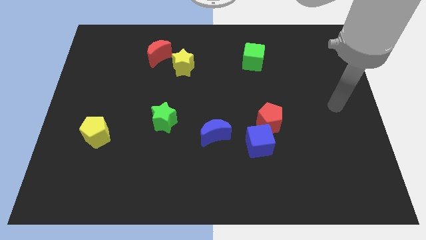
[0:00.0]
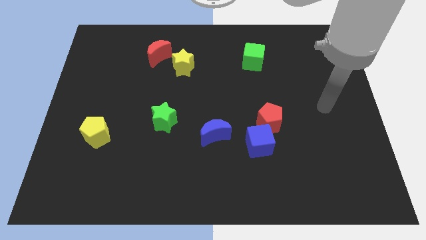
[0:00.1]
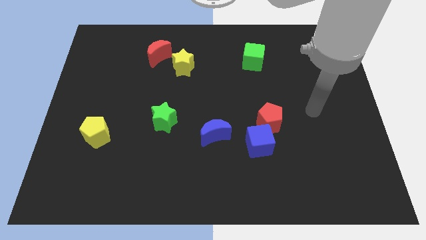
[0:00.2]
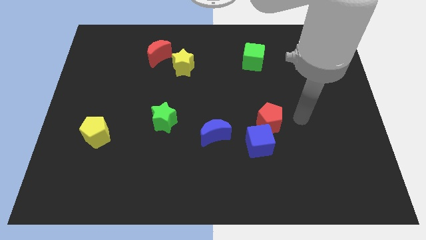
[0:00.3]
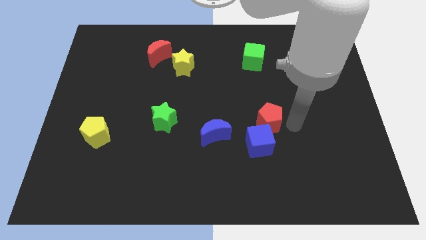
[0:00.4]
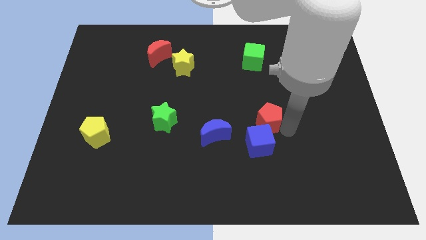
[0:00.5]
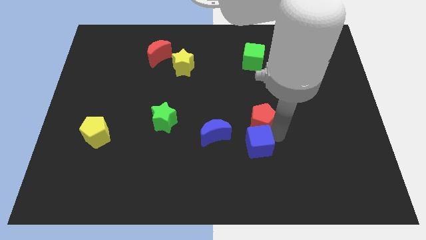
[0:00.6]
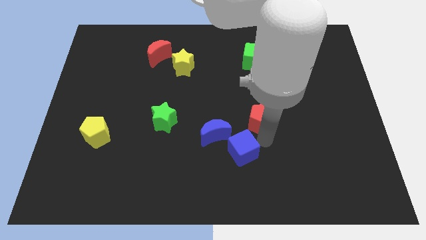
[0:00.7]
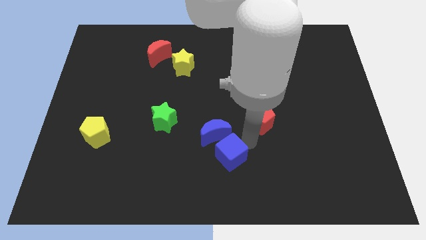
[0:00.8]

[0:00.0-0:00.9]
move the red pentagon away from the blue cube

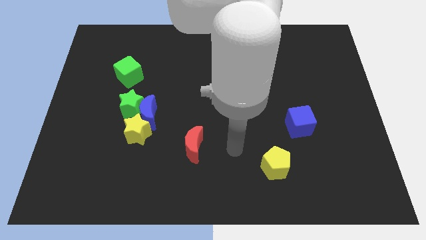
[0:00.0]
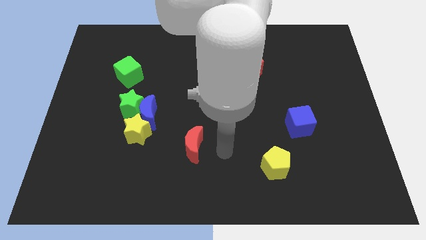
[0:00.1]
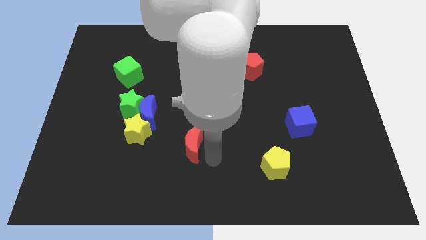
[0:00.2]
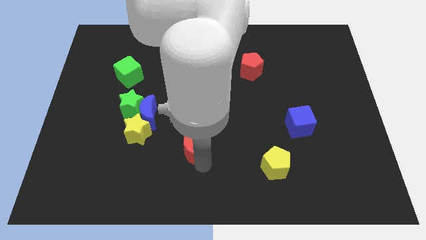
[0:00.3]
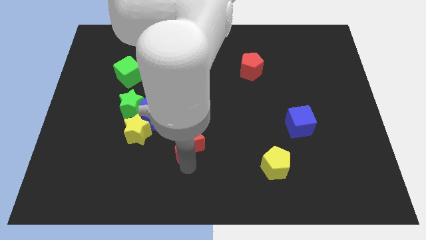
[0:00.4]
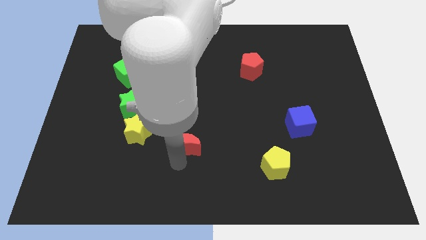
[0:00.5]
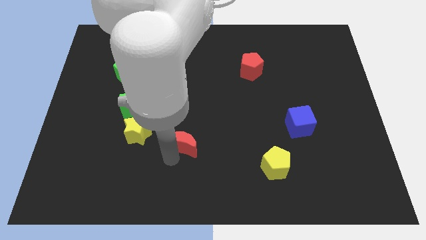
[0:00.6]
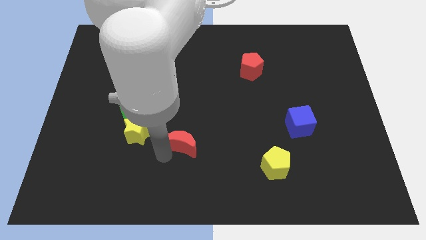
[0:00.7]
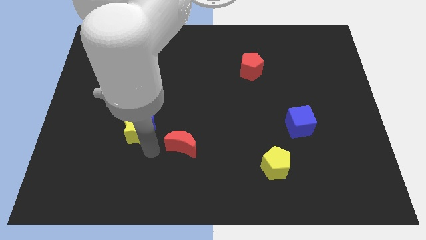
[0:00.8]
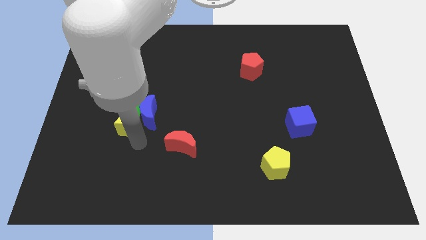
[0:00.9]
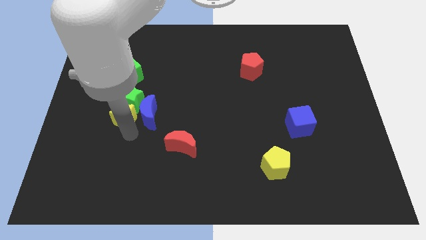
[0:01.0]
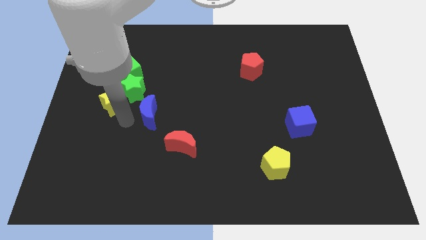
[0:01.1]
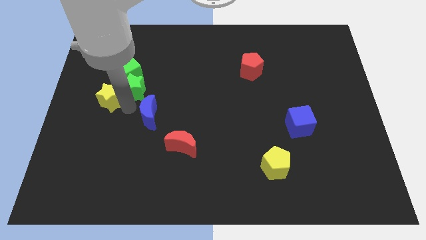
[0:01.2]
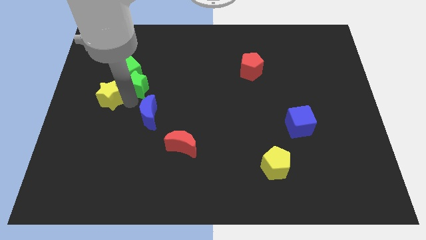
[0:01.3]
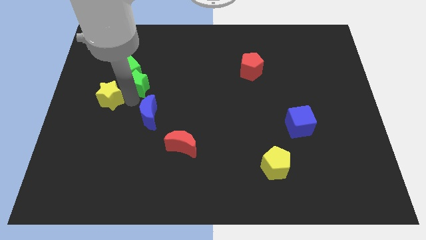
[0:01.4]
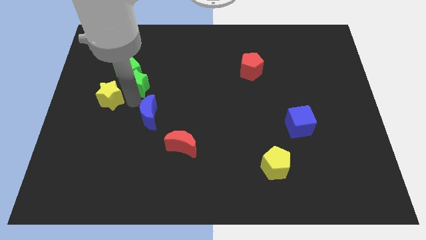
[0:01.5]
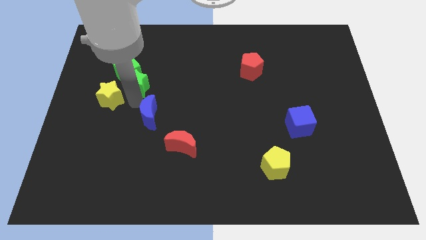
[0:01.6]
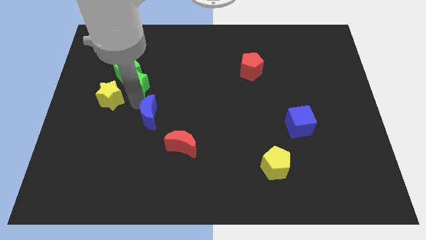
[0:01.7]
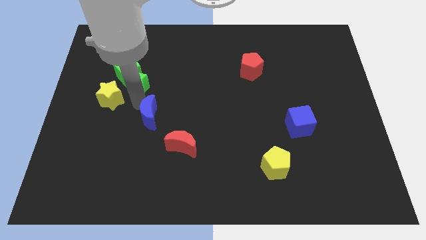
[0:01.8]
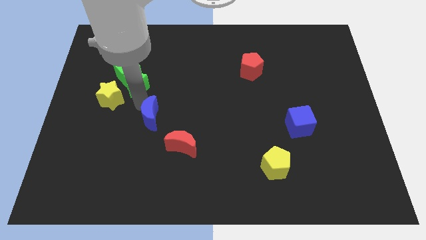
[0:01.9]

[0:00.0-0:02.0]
move the blue moon away from the green star and yellow star

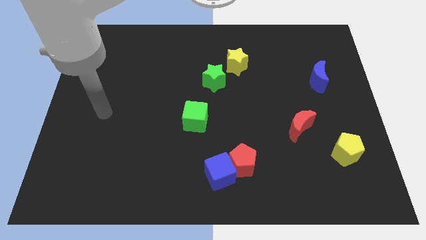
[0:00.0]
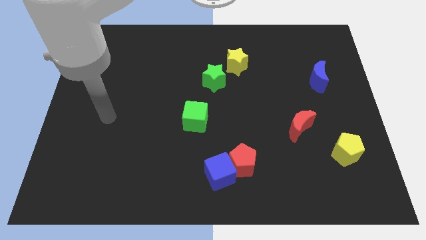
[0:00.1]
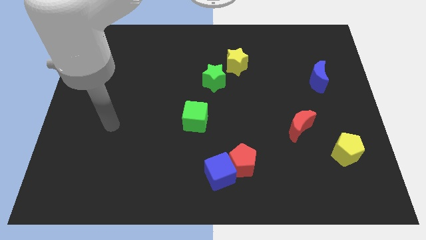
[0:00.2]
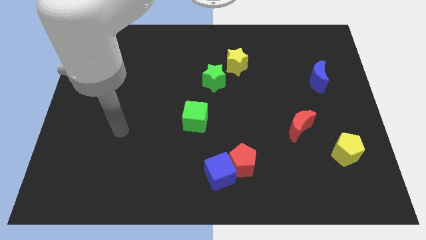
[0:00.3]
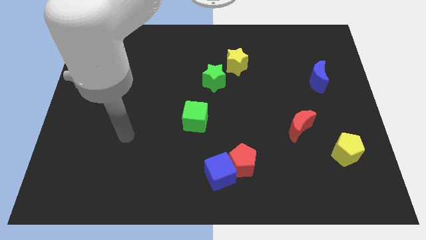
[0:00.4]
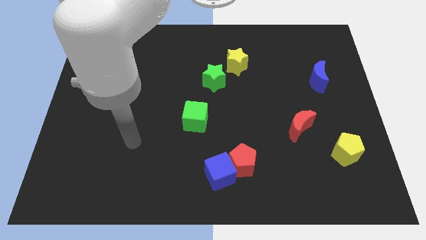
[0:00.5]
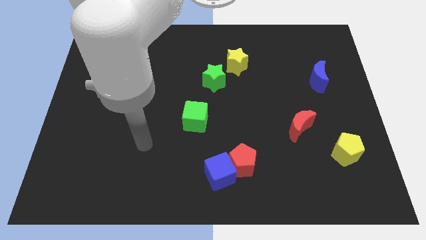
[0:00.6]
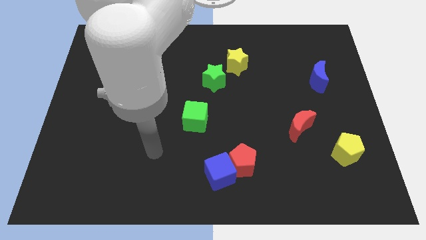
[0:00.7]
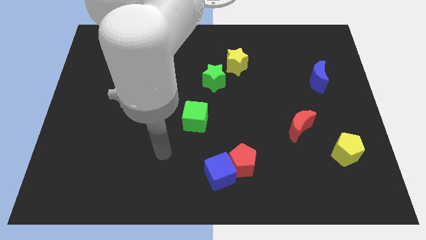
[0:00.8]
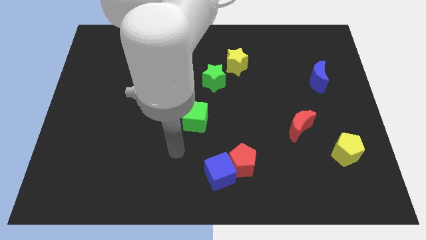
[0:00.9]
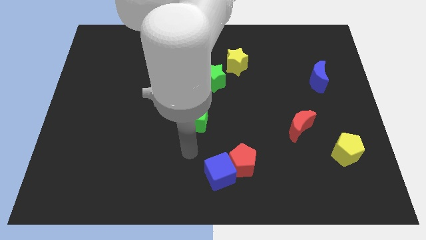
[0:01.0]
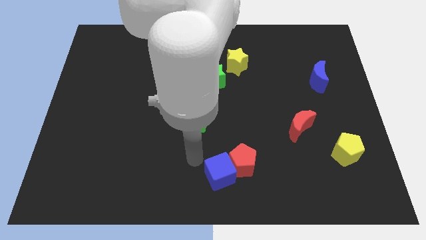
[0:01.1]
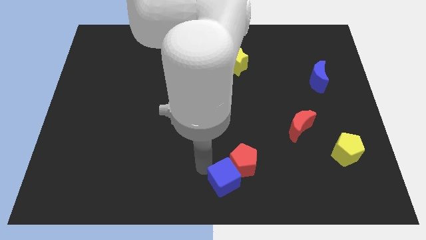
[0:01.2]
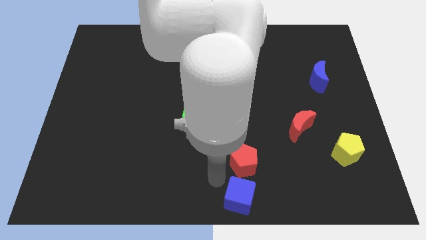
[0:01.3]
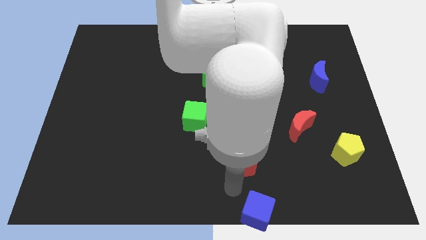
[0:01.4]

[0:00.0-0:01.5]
pull the red pentagon apart from the blue cube

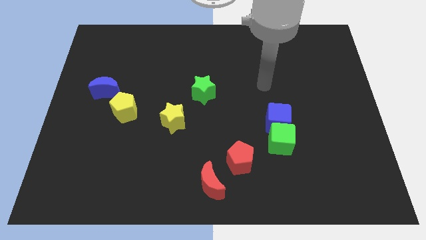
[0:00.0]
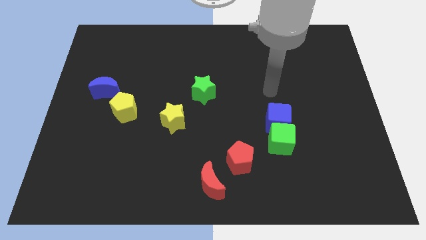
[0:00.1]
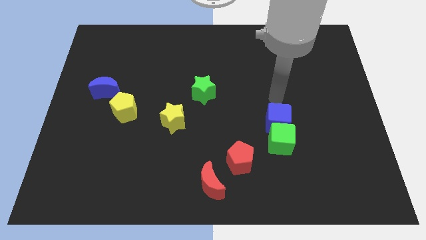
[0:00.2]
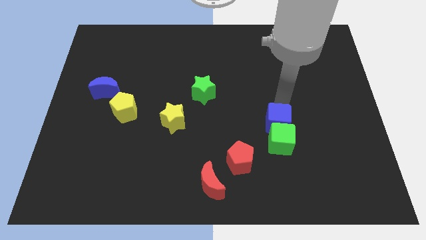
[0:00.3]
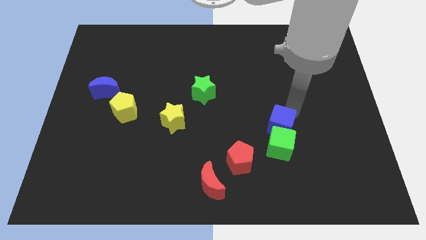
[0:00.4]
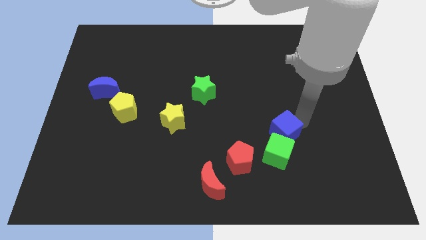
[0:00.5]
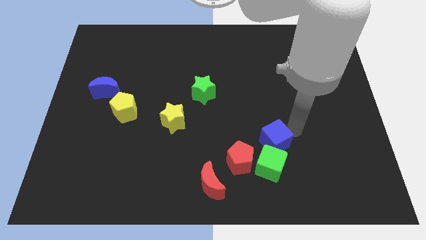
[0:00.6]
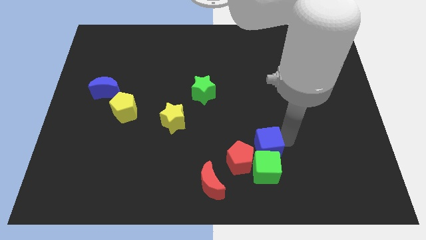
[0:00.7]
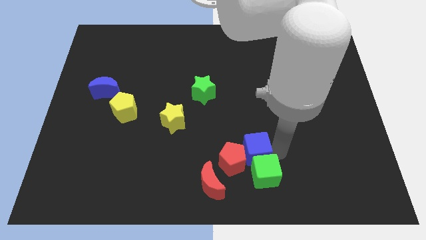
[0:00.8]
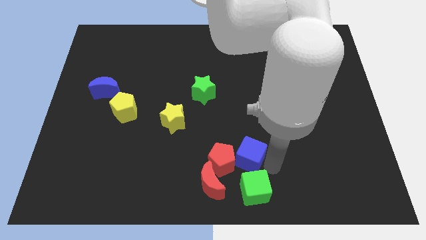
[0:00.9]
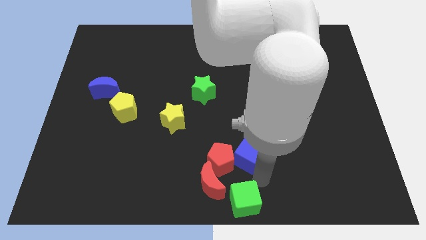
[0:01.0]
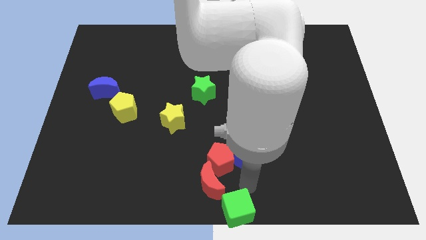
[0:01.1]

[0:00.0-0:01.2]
separate the blue cube from the green cube

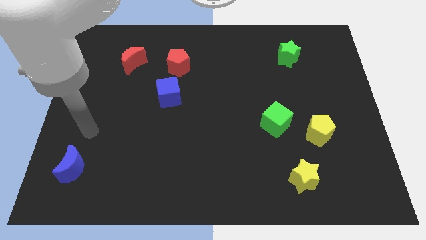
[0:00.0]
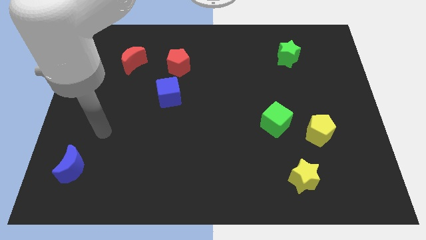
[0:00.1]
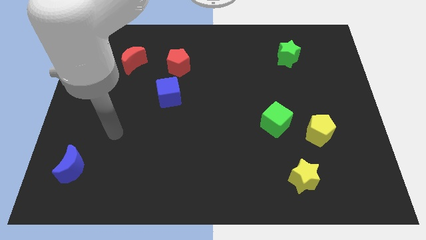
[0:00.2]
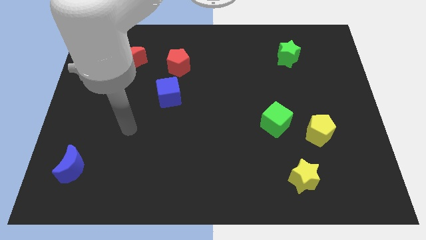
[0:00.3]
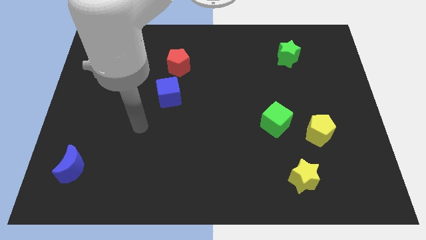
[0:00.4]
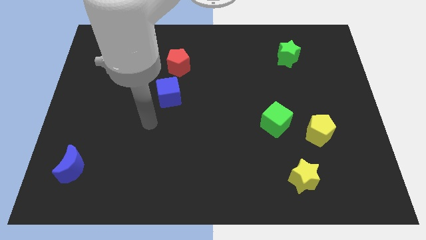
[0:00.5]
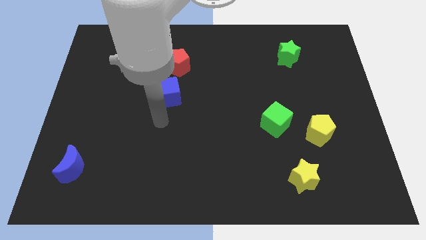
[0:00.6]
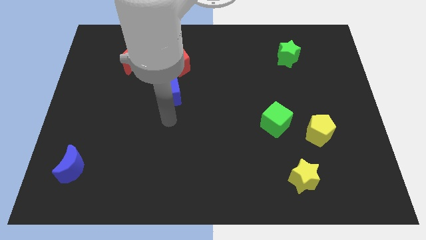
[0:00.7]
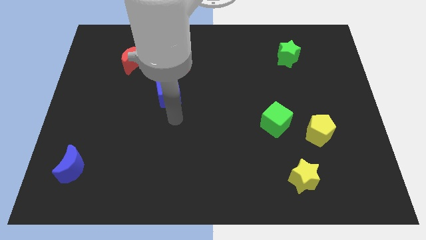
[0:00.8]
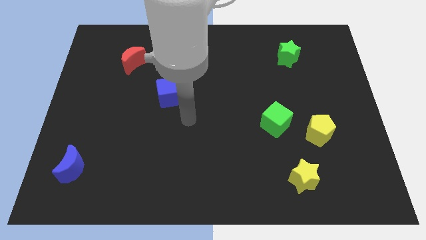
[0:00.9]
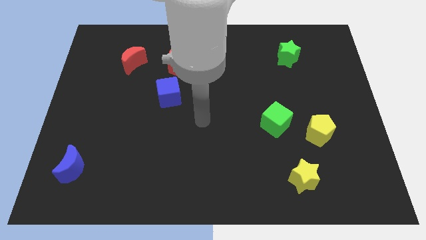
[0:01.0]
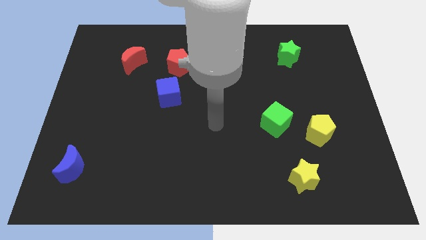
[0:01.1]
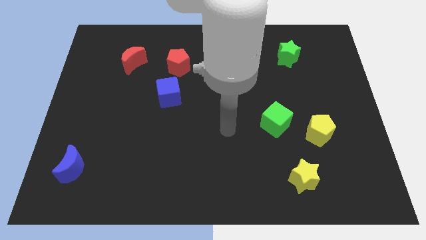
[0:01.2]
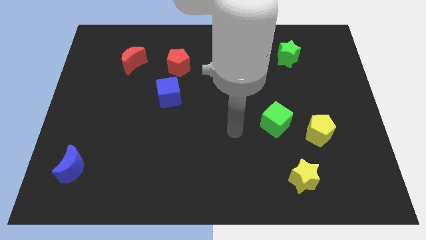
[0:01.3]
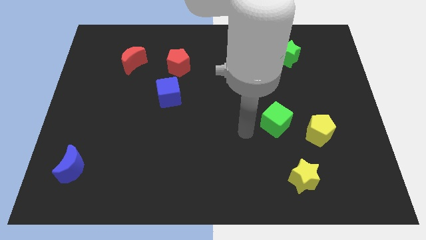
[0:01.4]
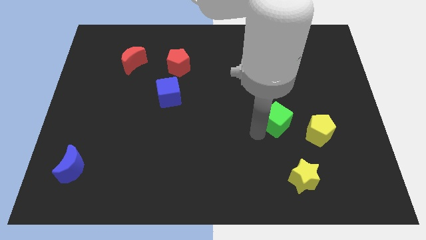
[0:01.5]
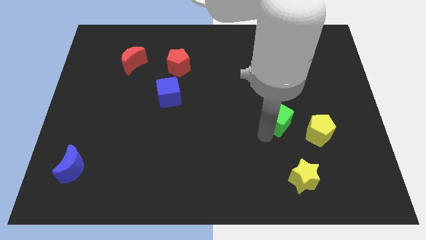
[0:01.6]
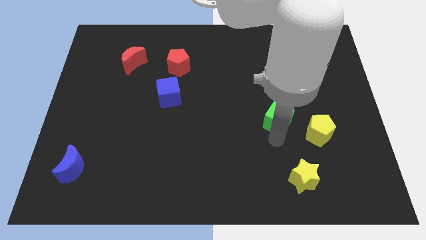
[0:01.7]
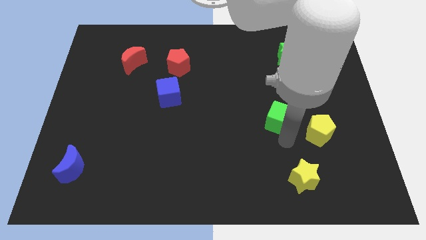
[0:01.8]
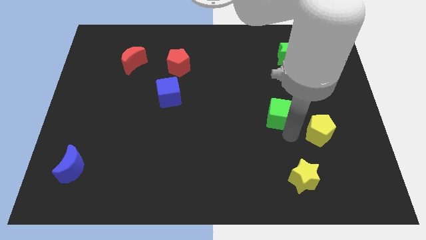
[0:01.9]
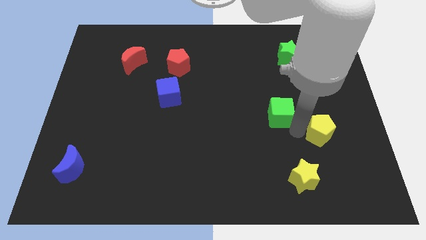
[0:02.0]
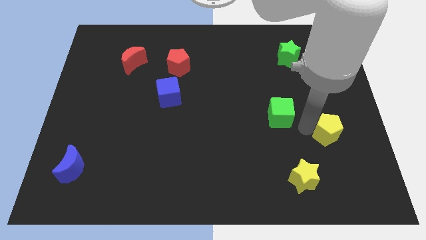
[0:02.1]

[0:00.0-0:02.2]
separate the green cube from the yellow pentagon

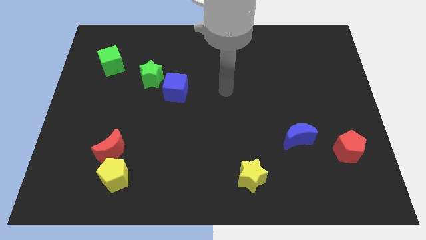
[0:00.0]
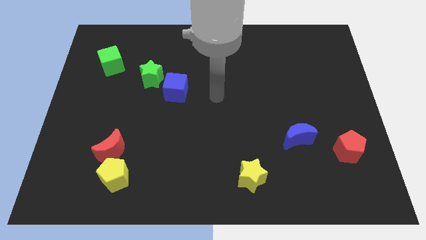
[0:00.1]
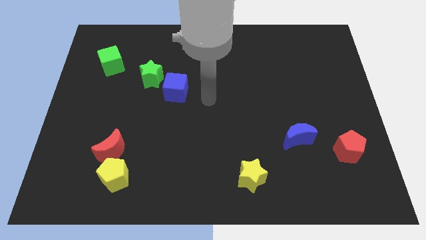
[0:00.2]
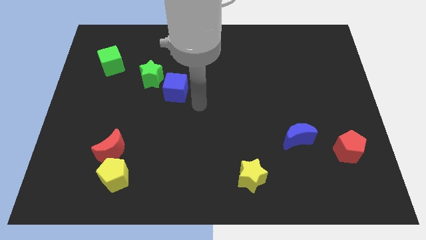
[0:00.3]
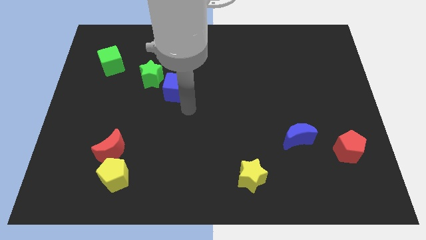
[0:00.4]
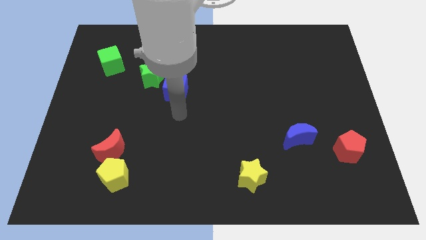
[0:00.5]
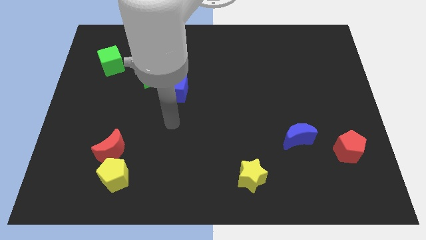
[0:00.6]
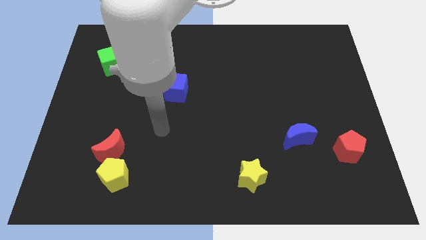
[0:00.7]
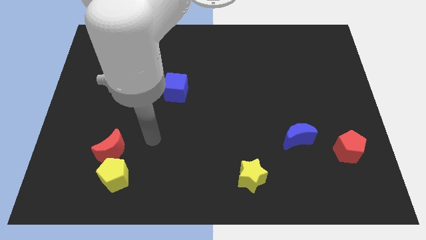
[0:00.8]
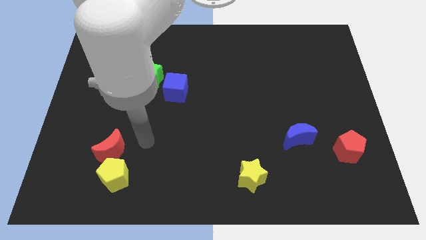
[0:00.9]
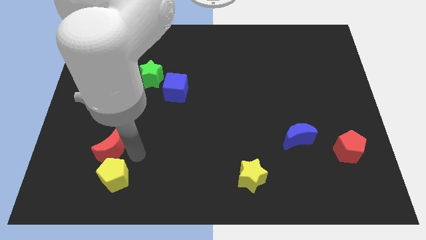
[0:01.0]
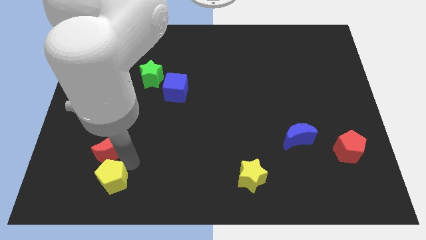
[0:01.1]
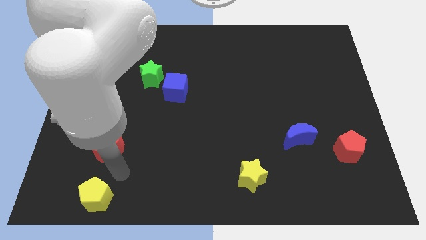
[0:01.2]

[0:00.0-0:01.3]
separate the red moon from the yellow pentagon

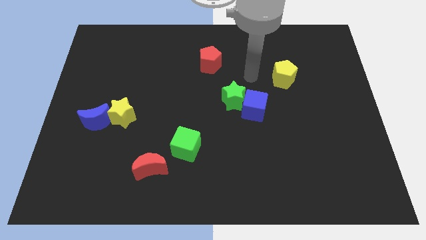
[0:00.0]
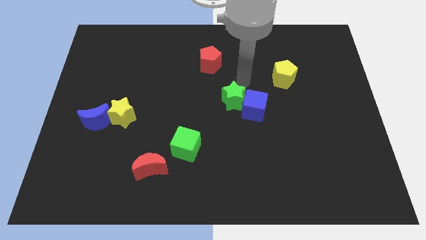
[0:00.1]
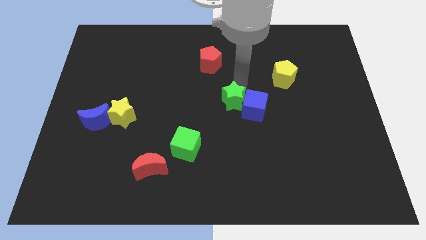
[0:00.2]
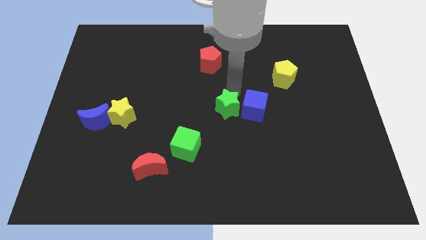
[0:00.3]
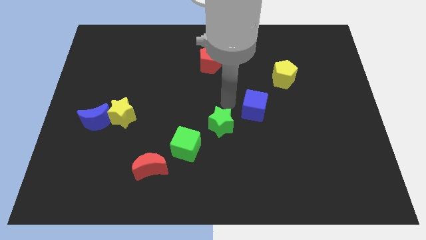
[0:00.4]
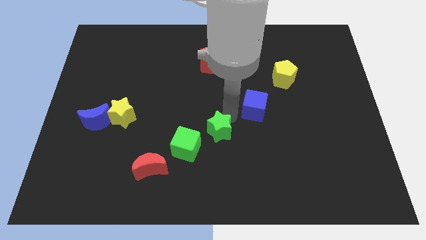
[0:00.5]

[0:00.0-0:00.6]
move the blue cube away from the green star
